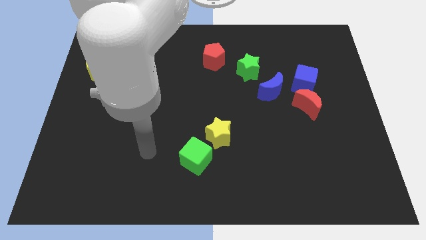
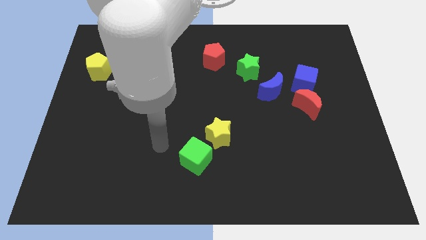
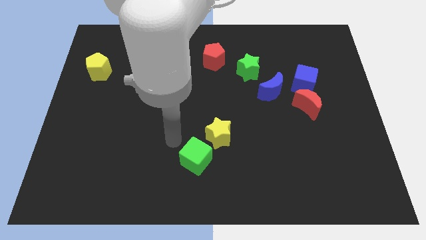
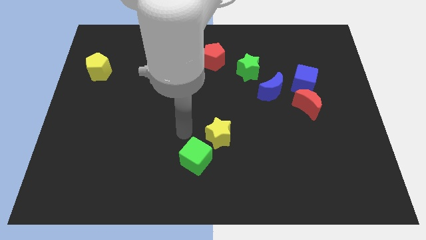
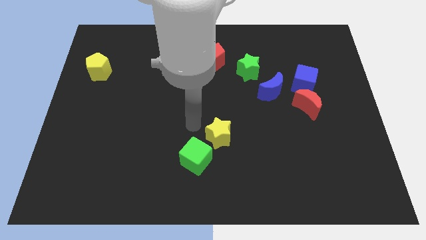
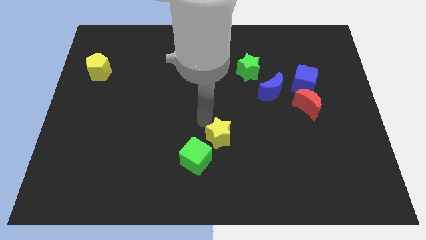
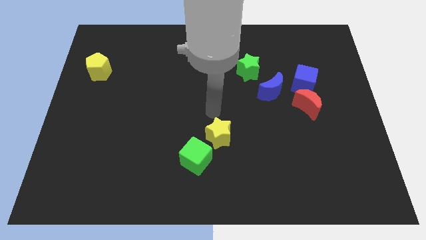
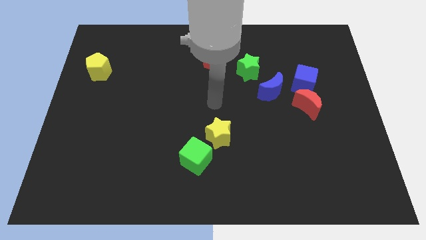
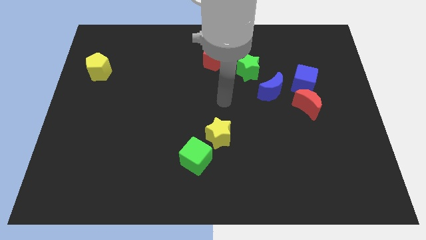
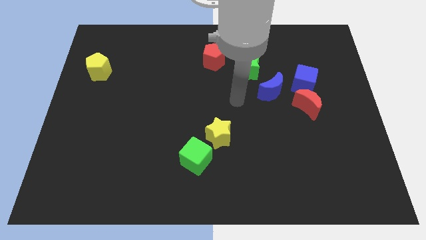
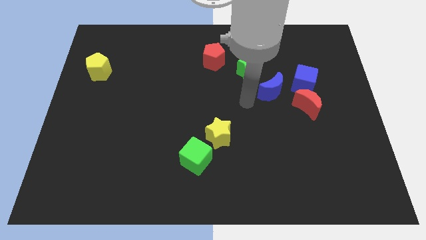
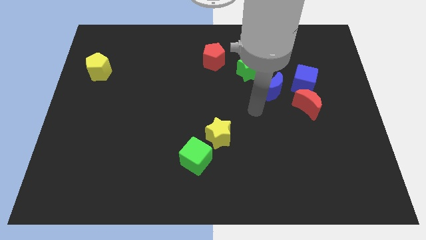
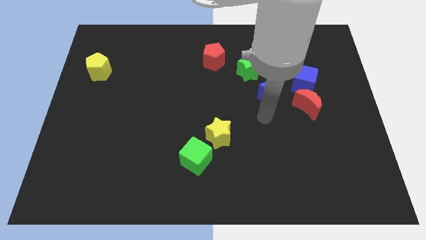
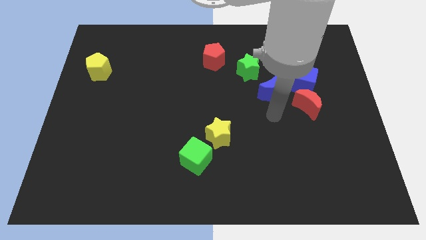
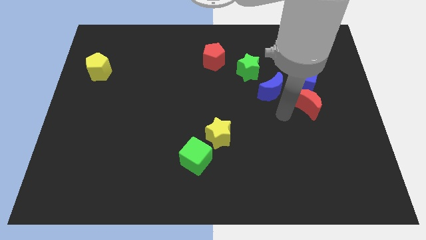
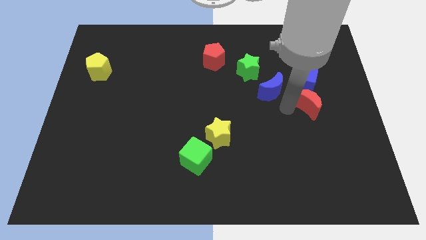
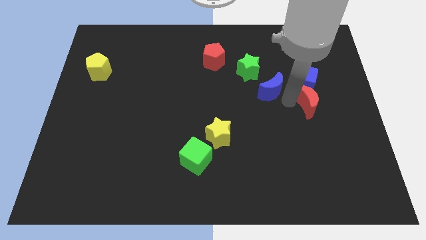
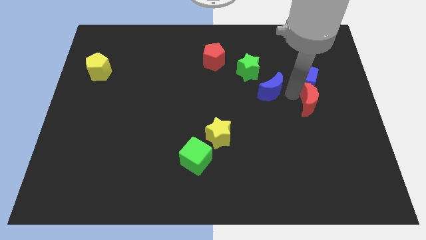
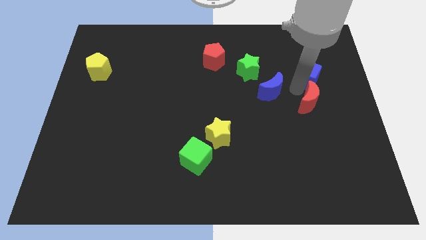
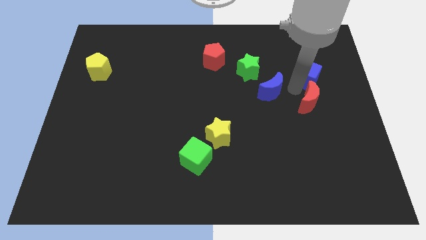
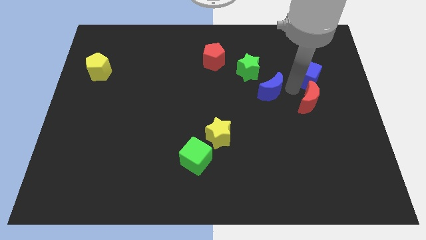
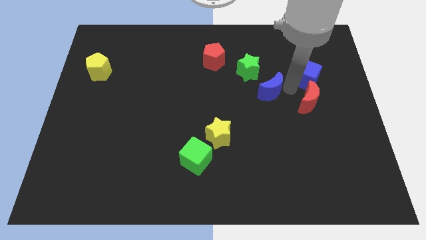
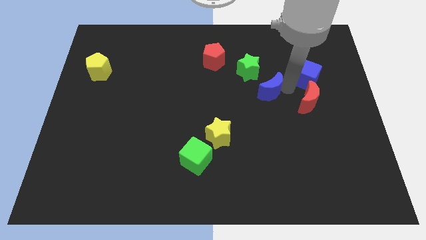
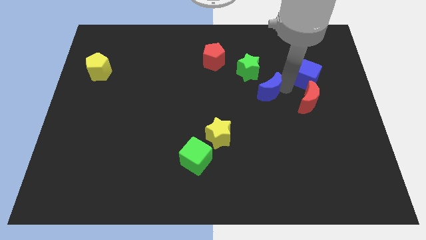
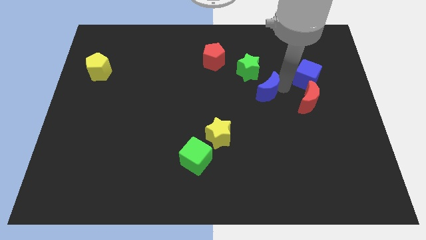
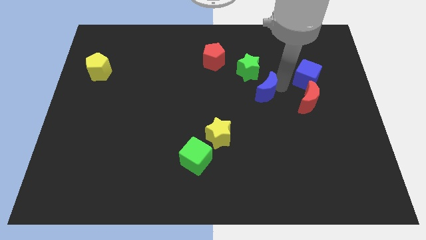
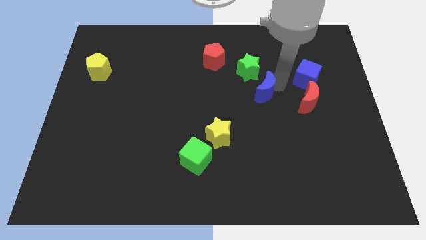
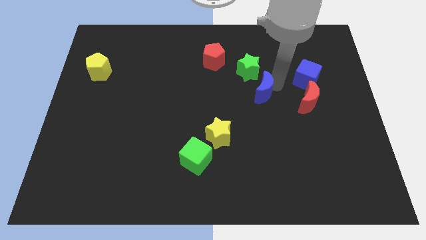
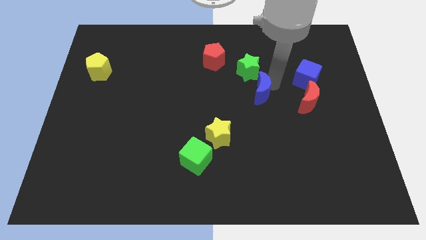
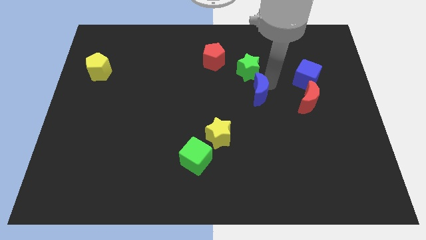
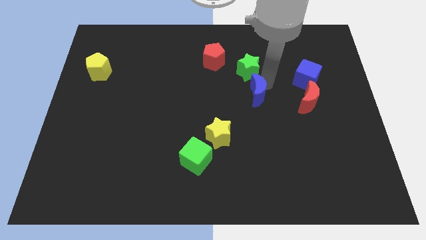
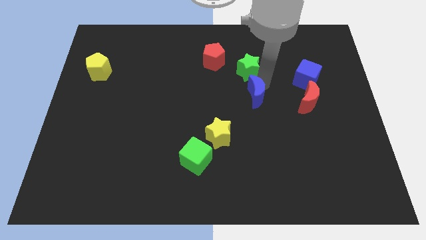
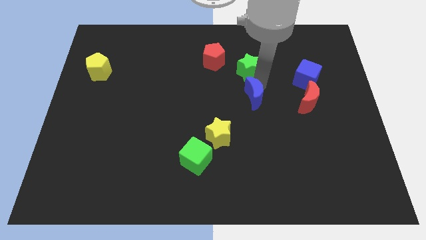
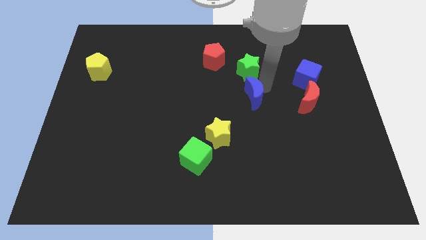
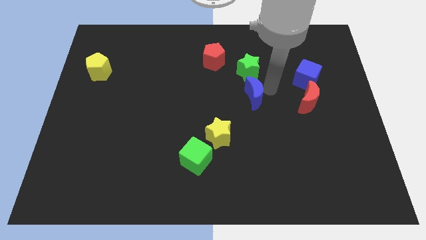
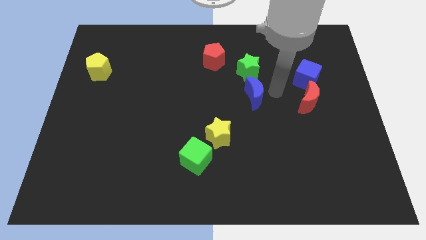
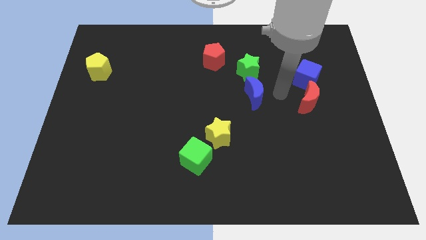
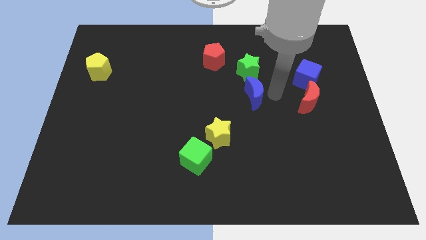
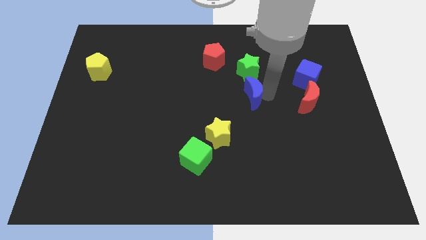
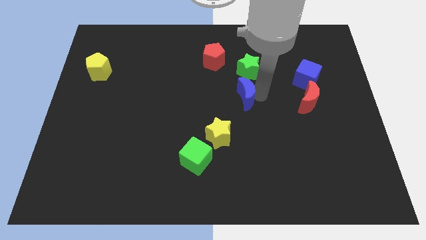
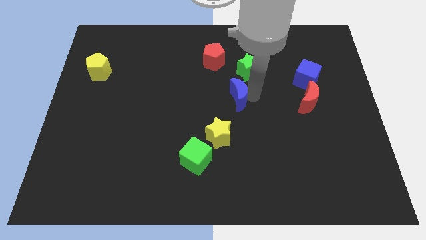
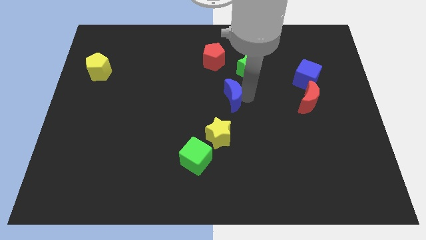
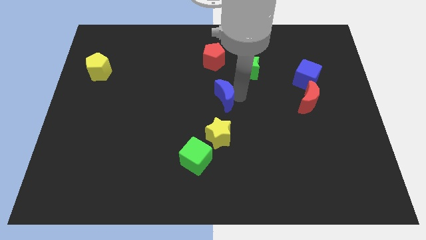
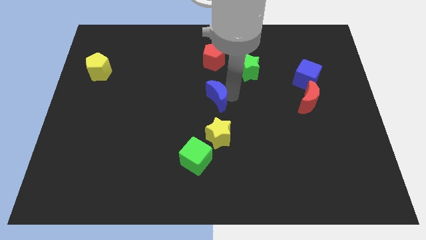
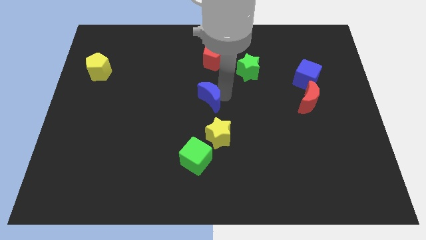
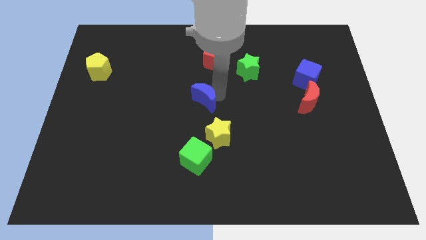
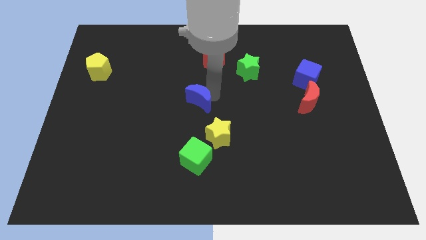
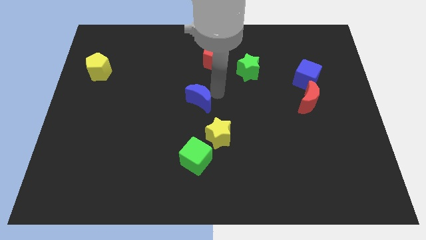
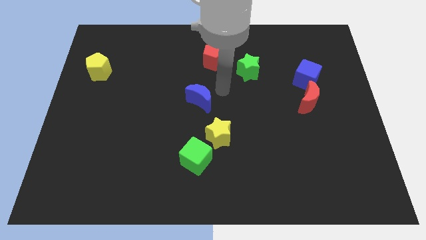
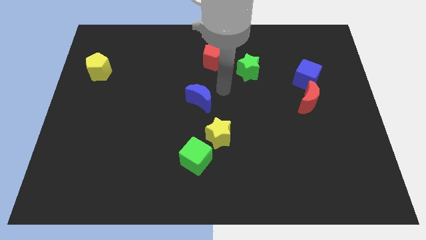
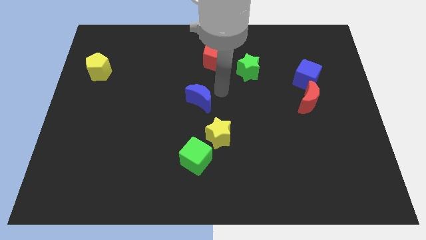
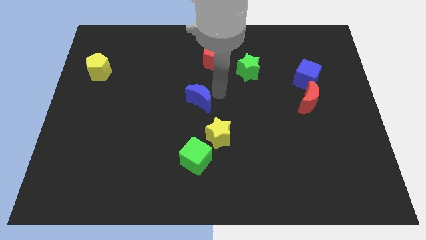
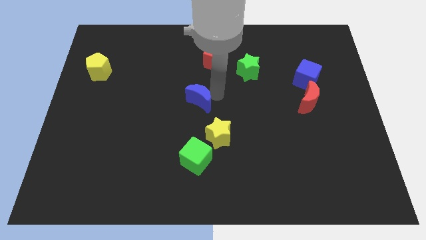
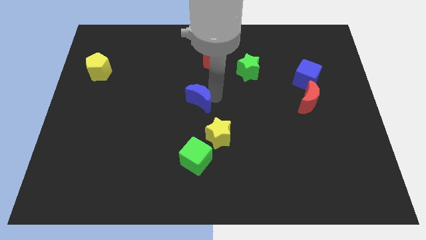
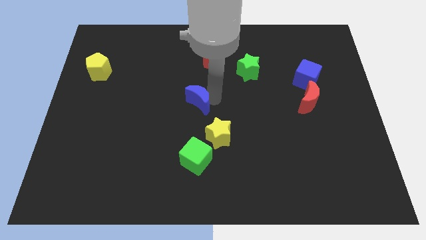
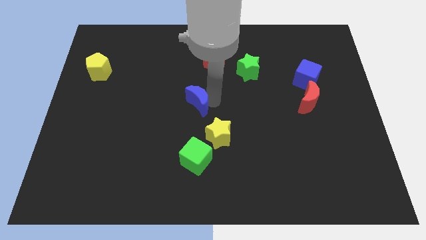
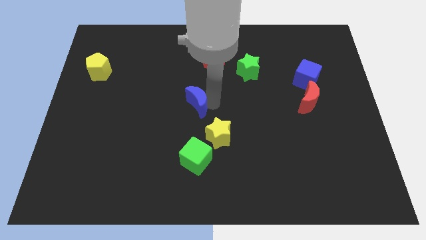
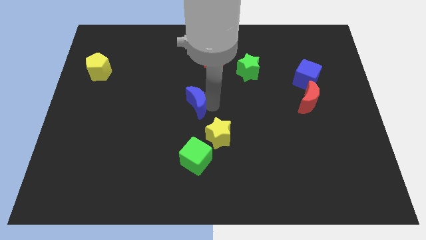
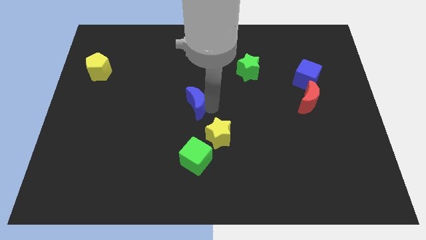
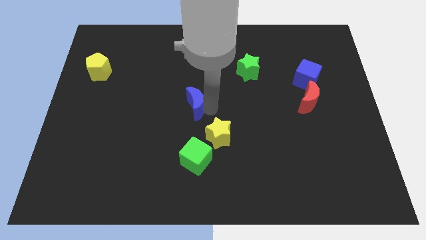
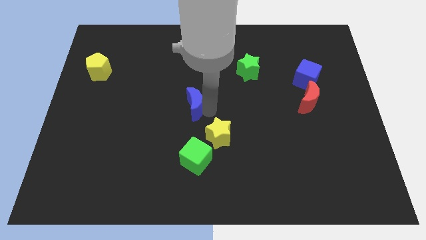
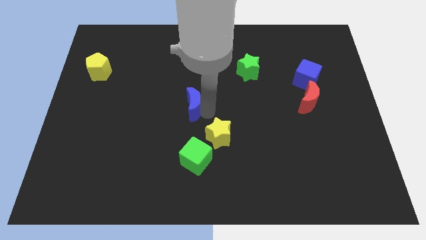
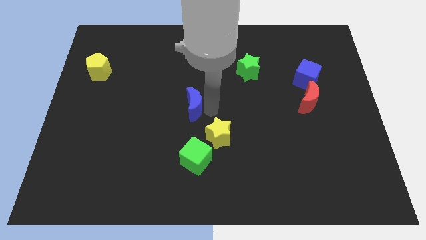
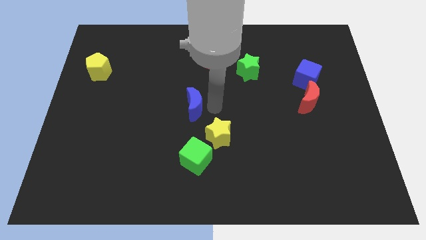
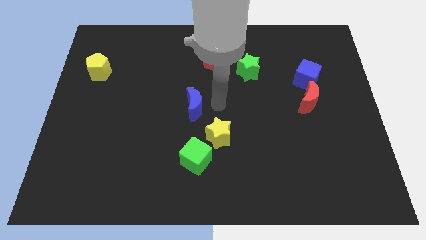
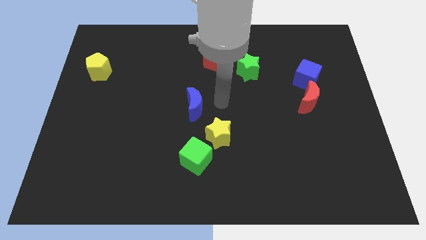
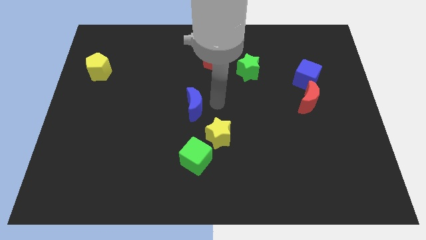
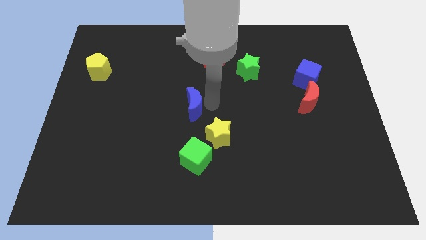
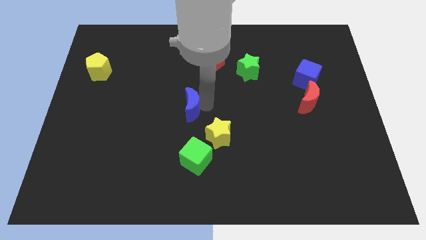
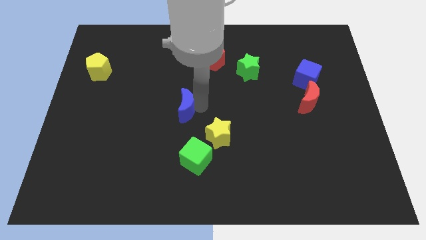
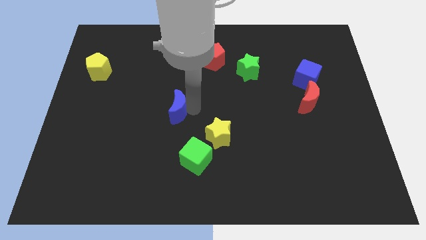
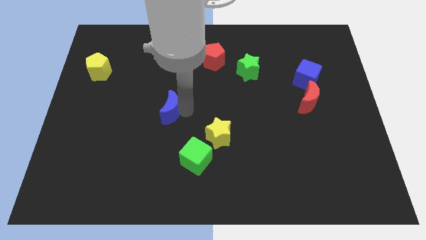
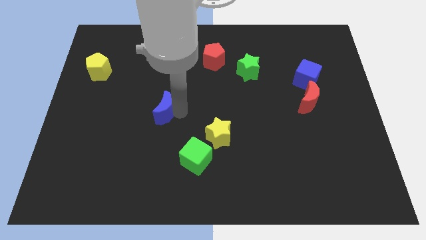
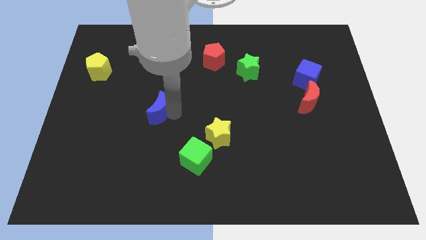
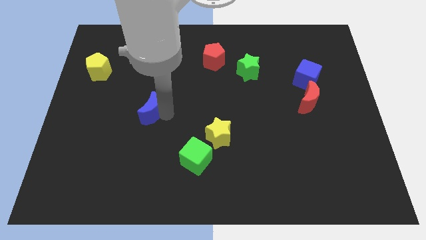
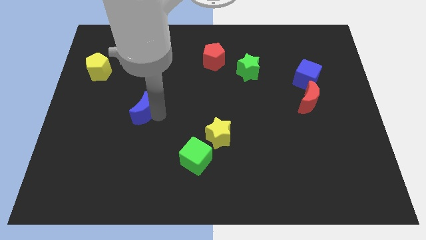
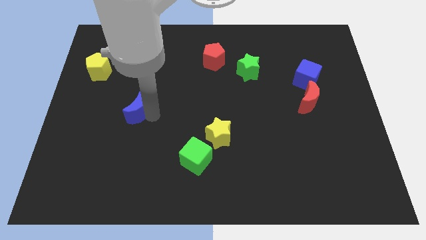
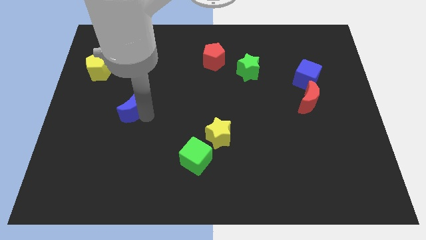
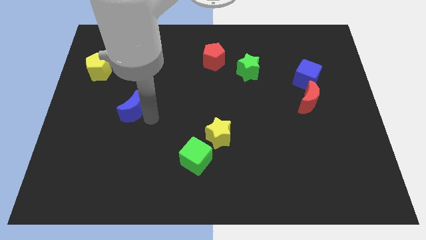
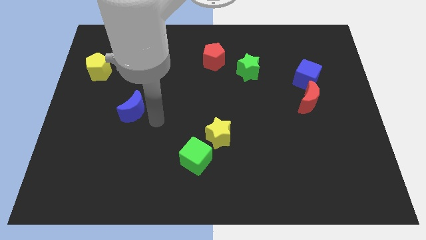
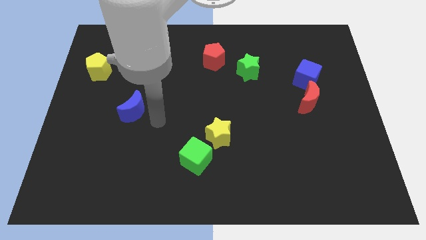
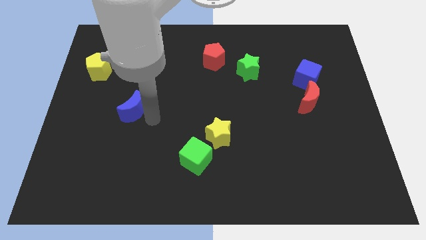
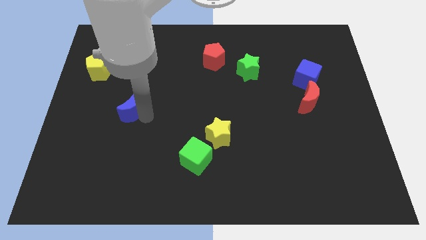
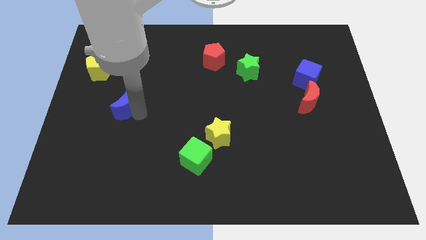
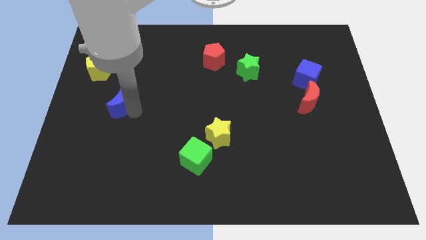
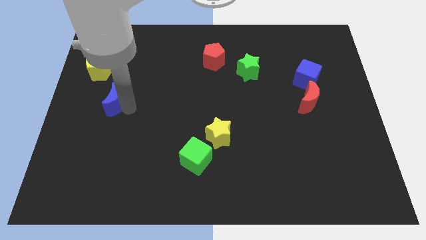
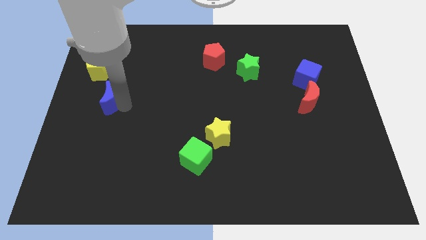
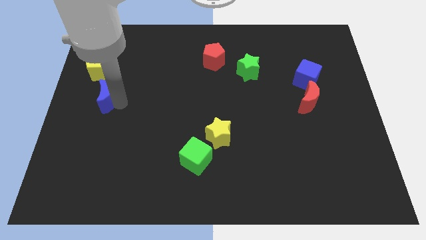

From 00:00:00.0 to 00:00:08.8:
move the blue moon to the left side
